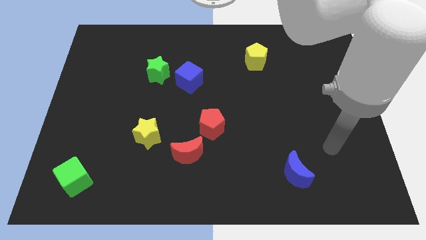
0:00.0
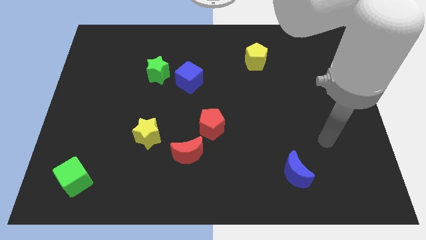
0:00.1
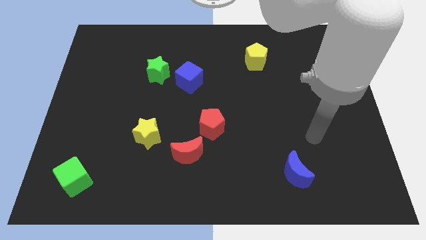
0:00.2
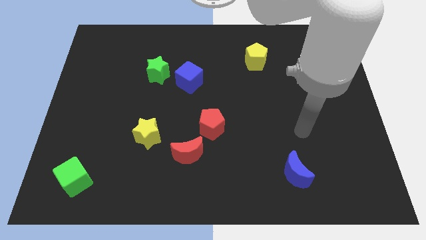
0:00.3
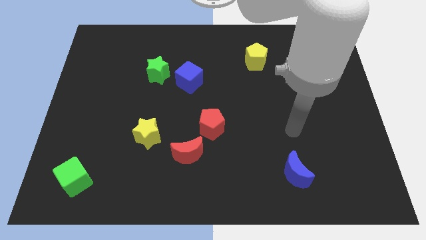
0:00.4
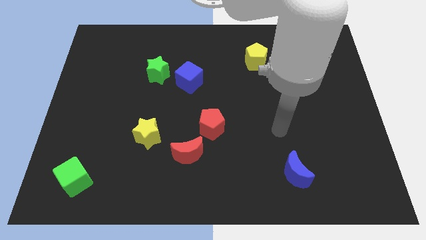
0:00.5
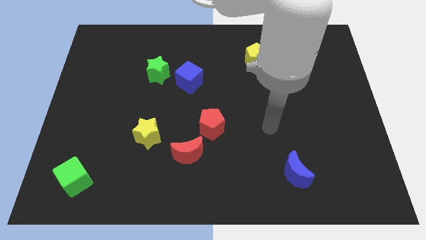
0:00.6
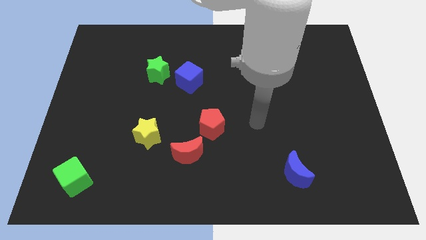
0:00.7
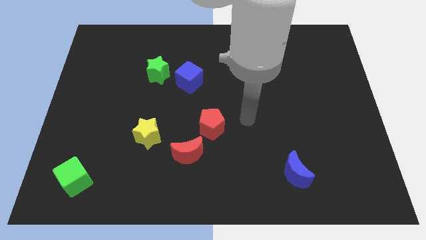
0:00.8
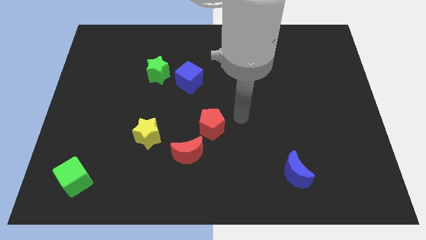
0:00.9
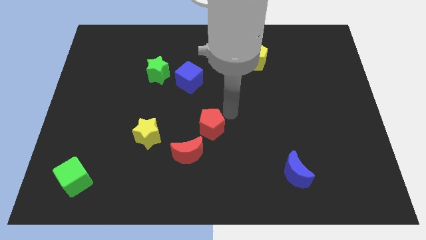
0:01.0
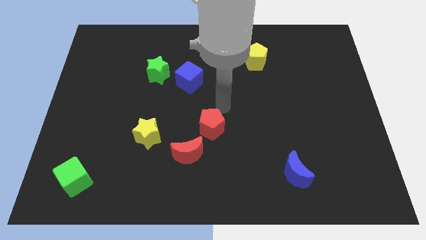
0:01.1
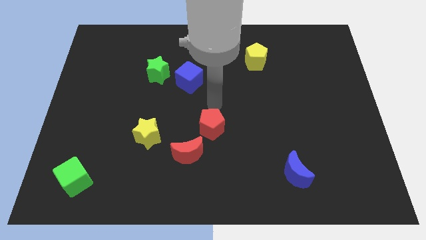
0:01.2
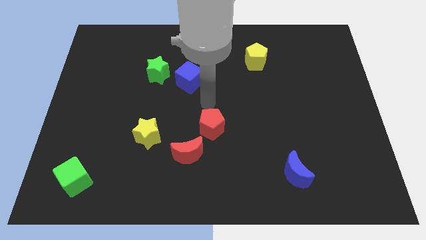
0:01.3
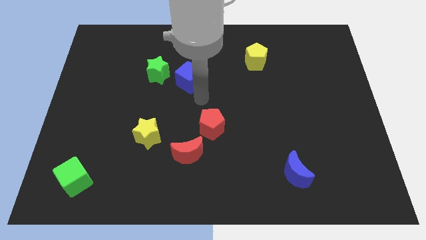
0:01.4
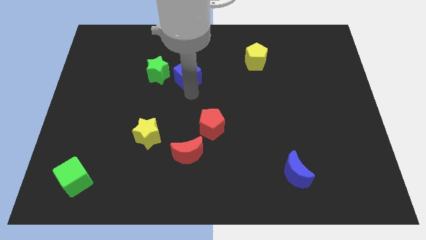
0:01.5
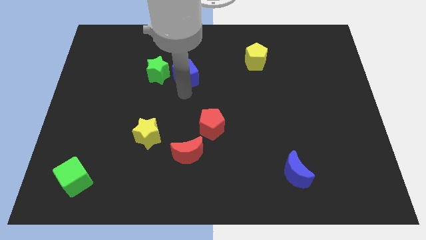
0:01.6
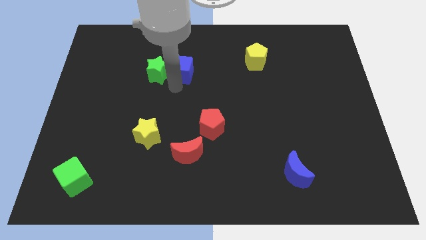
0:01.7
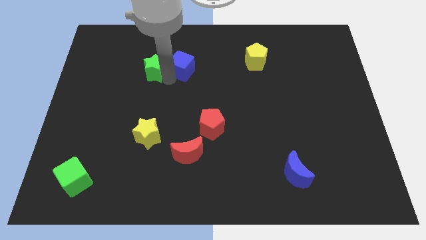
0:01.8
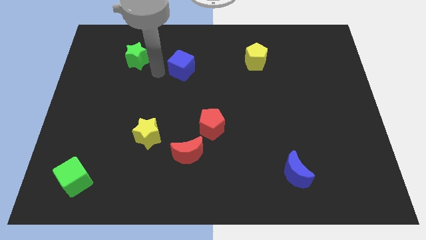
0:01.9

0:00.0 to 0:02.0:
separate the blue cube from the green star

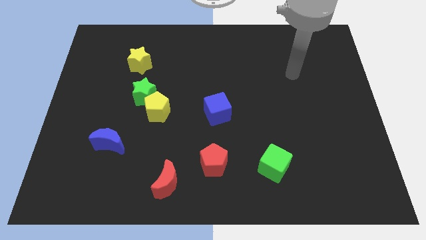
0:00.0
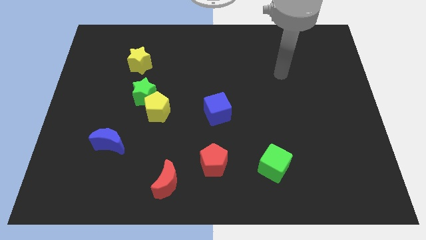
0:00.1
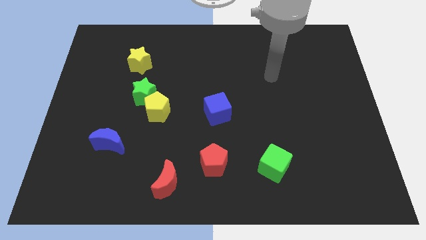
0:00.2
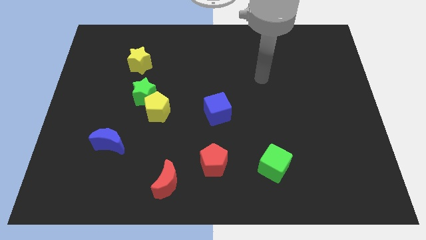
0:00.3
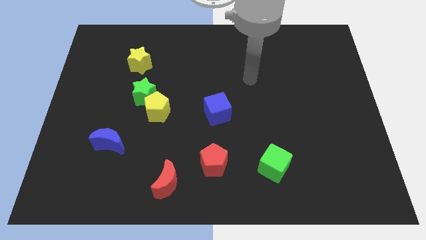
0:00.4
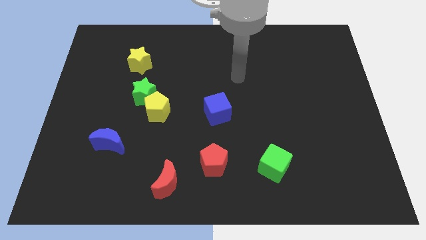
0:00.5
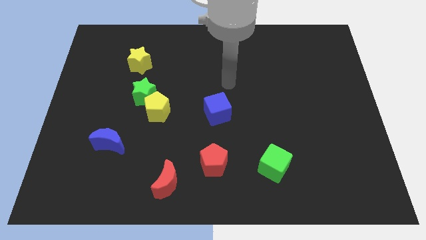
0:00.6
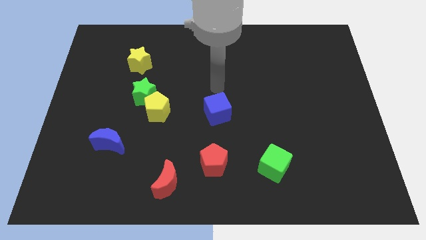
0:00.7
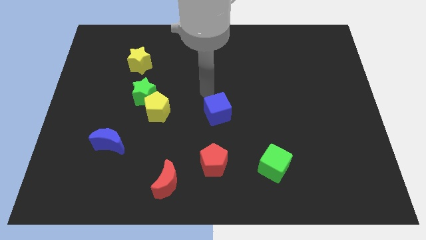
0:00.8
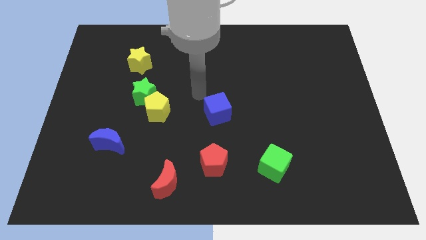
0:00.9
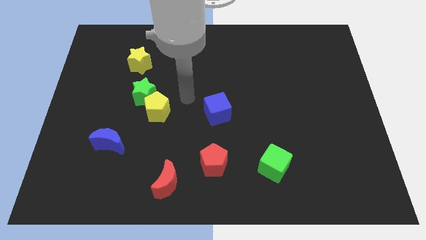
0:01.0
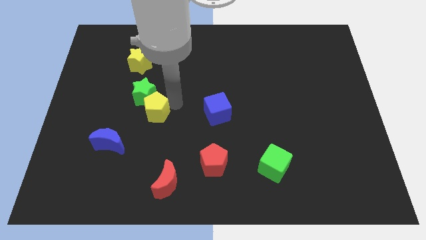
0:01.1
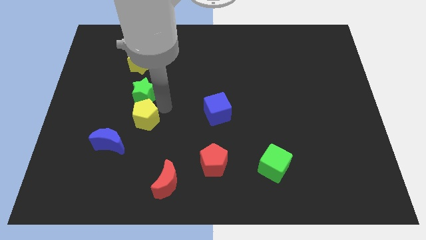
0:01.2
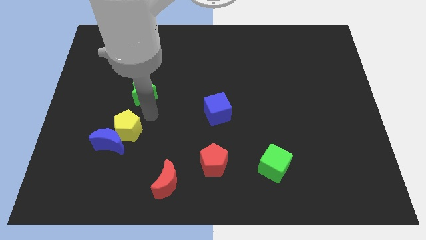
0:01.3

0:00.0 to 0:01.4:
pull the green star apart from the yellow pentagon

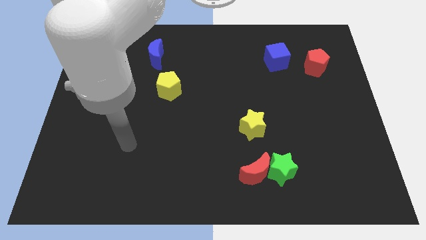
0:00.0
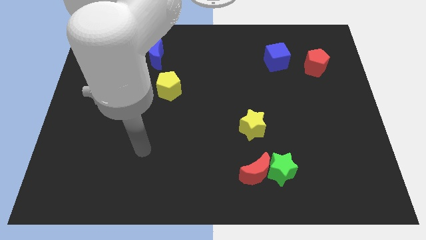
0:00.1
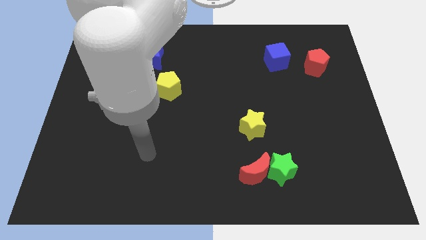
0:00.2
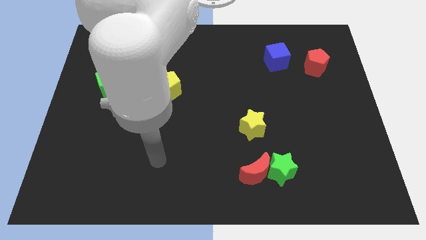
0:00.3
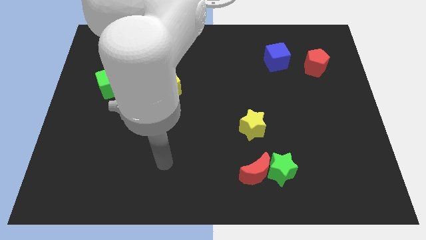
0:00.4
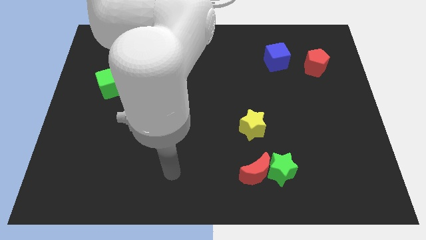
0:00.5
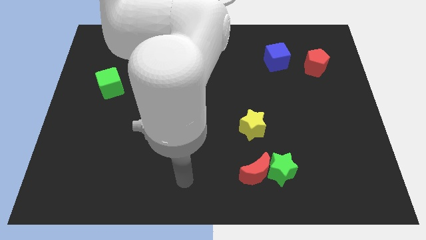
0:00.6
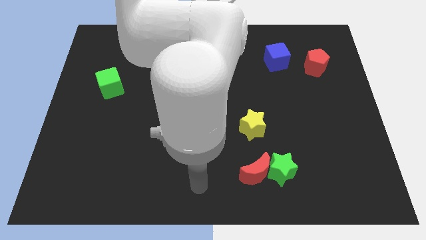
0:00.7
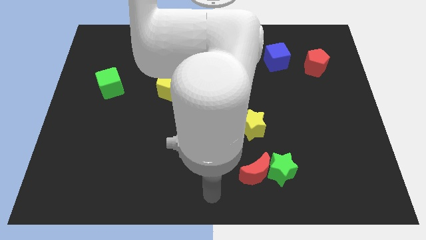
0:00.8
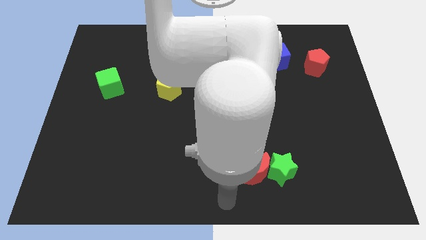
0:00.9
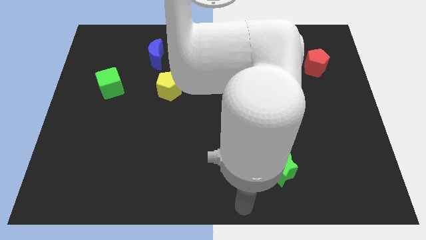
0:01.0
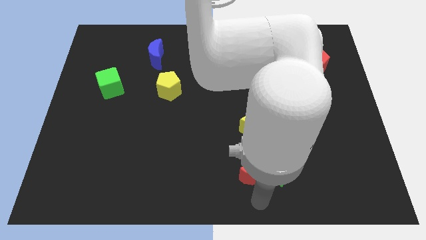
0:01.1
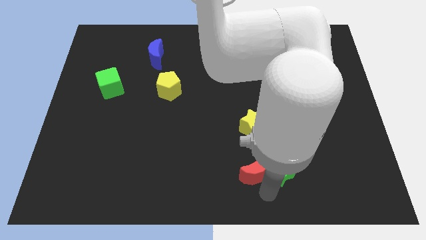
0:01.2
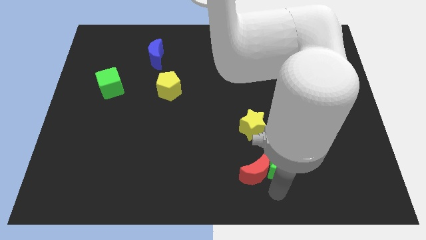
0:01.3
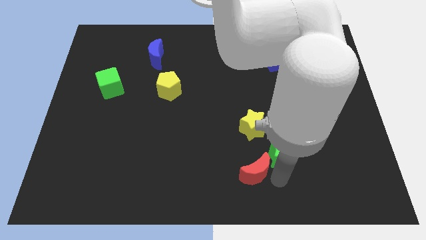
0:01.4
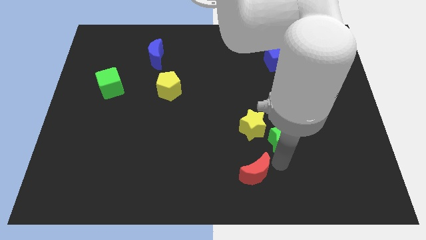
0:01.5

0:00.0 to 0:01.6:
separate the red moon from the green star

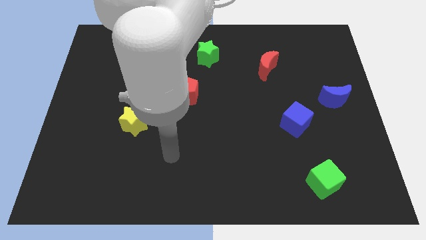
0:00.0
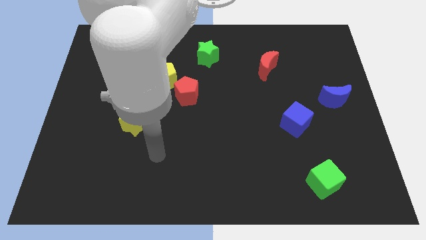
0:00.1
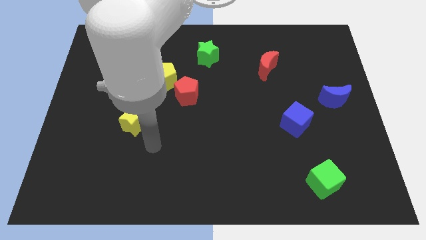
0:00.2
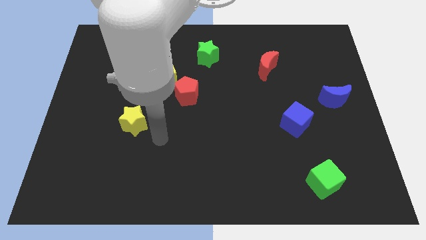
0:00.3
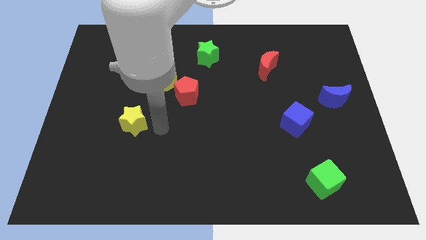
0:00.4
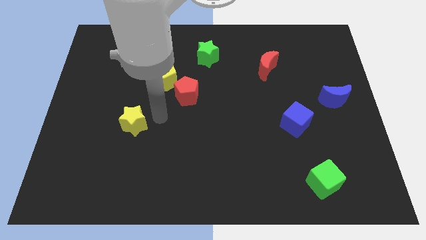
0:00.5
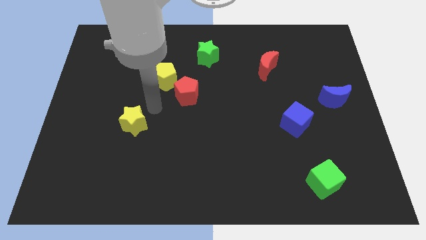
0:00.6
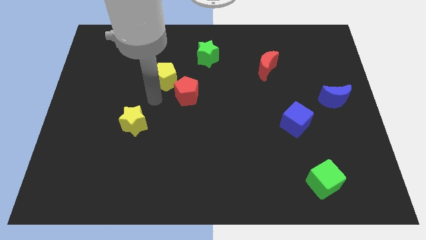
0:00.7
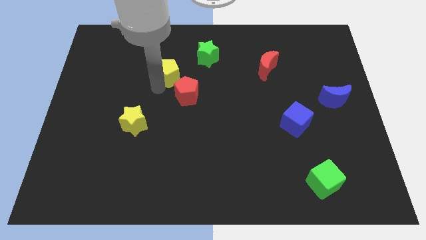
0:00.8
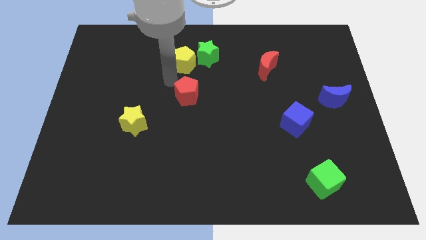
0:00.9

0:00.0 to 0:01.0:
separate the red pentagon from the yellow pentagon

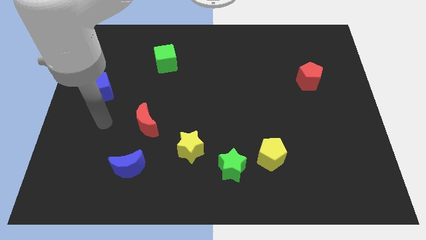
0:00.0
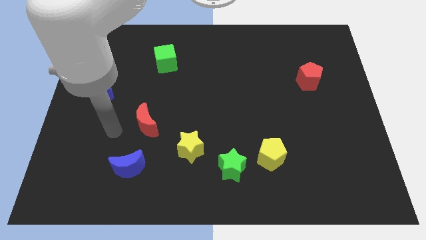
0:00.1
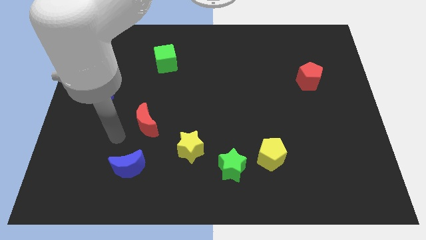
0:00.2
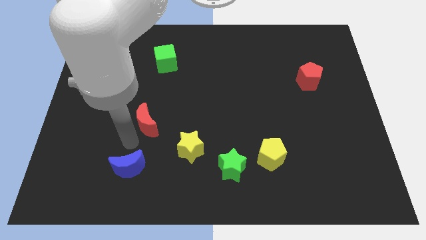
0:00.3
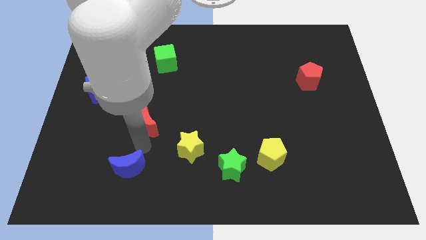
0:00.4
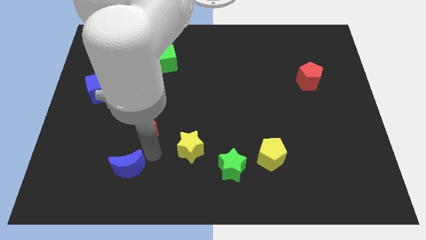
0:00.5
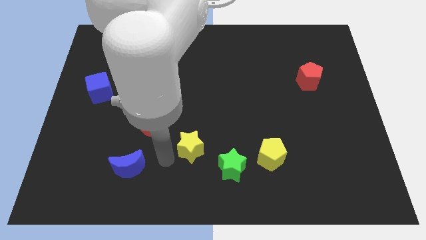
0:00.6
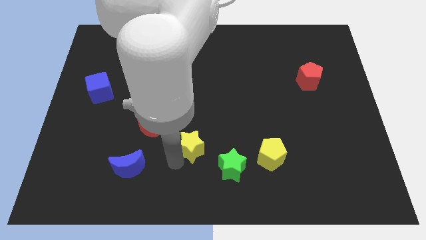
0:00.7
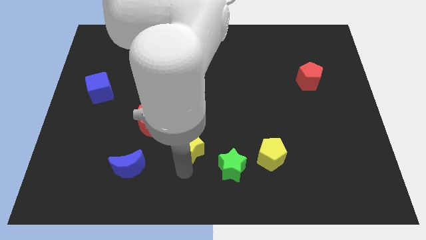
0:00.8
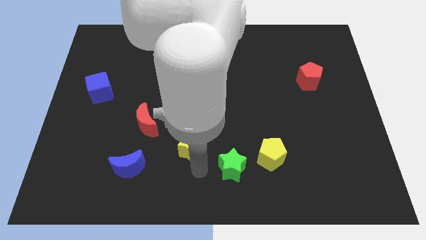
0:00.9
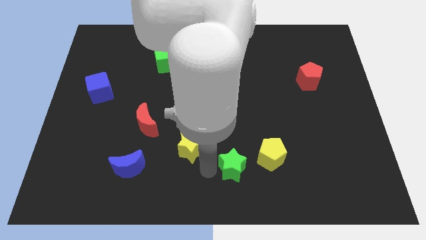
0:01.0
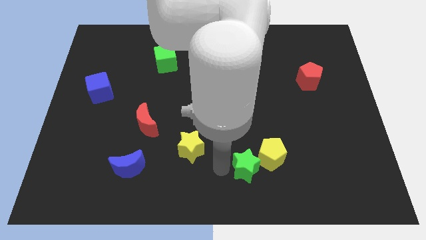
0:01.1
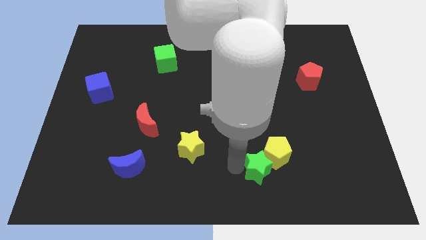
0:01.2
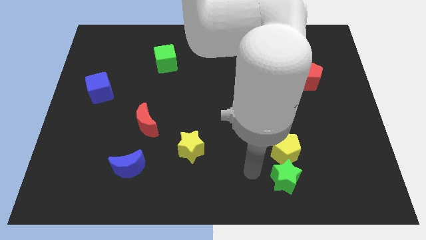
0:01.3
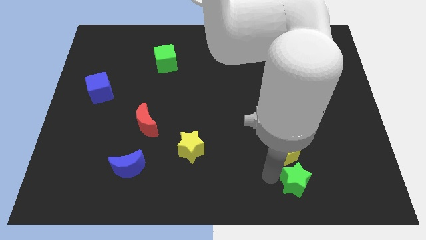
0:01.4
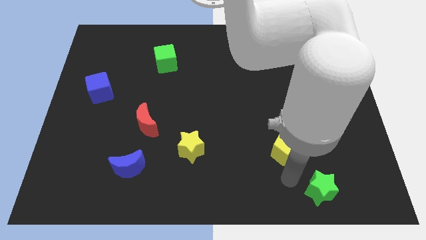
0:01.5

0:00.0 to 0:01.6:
move the yellow pentagon away from the green star

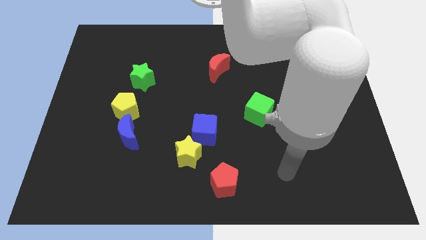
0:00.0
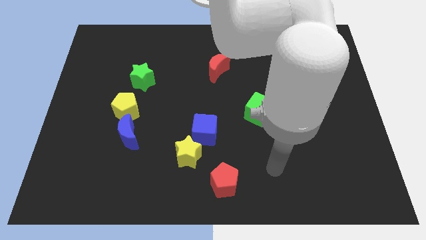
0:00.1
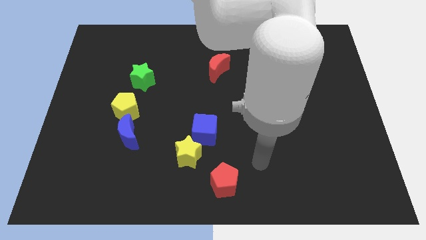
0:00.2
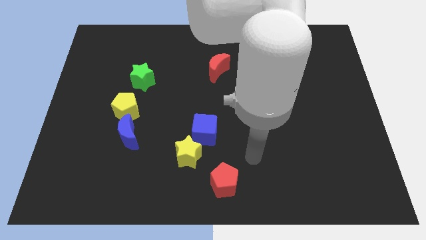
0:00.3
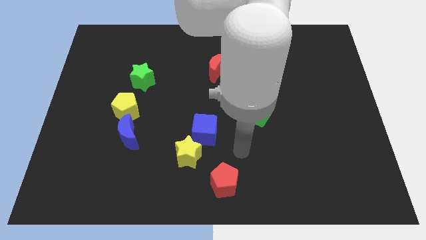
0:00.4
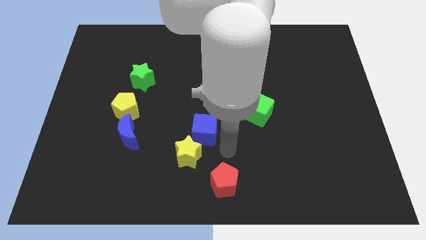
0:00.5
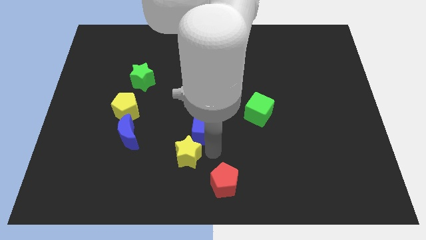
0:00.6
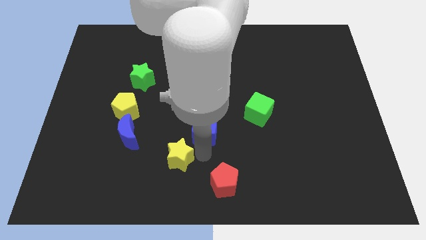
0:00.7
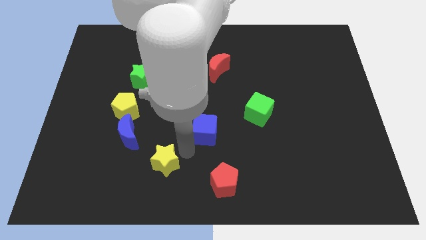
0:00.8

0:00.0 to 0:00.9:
move the blue cube away from the yellow star

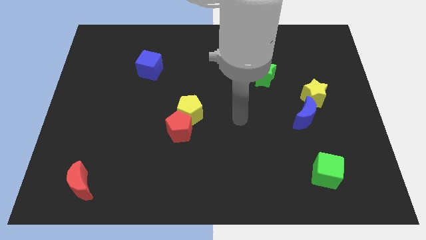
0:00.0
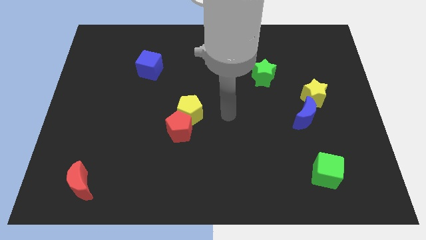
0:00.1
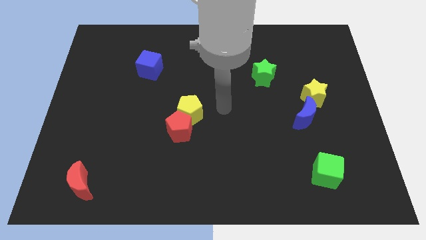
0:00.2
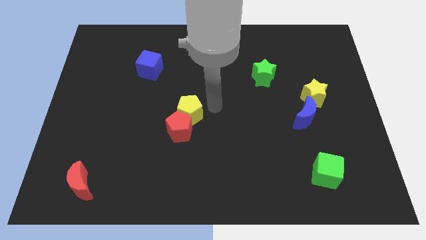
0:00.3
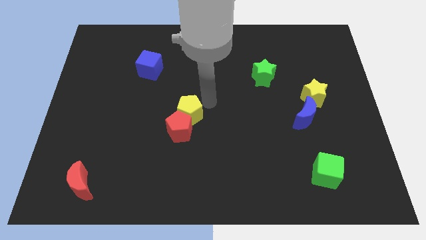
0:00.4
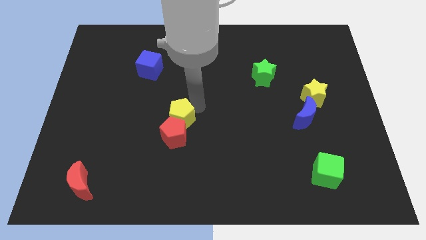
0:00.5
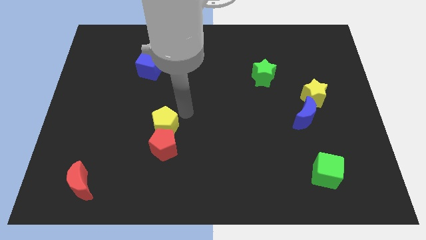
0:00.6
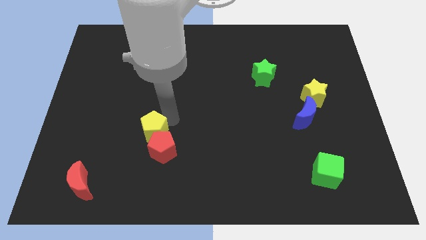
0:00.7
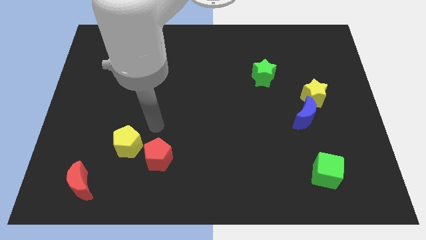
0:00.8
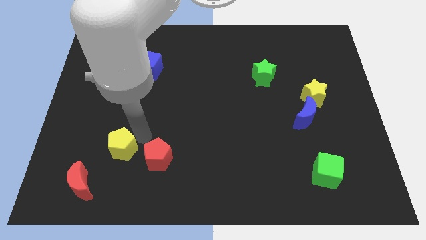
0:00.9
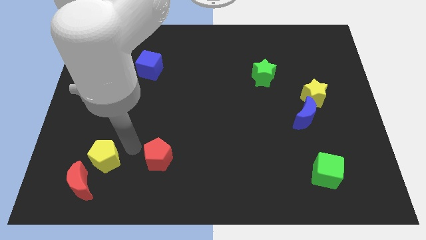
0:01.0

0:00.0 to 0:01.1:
pull the red pentagon apart from the yellow pentagon
